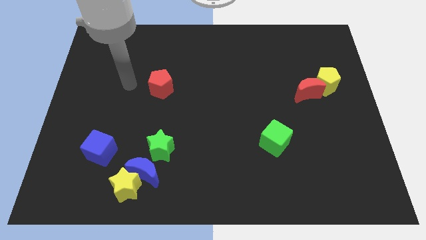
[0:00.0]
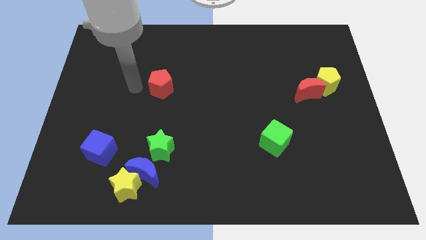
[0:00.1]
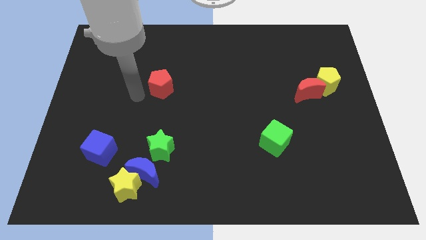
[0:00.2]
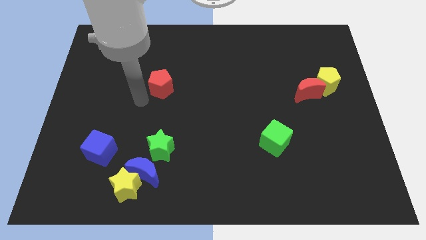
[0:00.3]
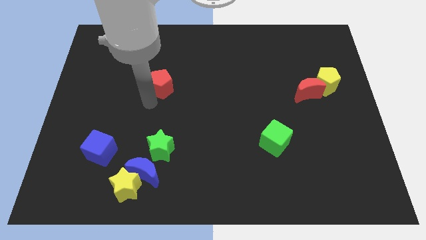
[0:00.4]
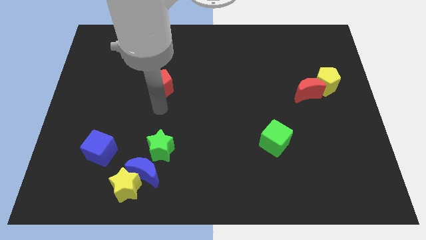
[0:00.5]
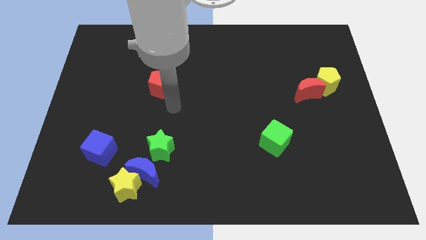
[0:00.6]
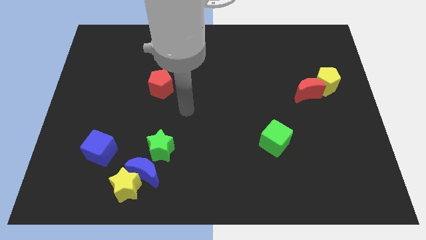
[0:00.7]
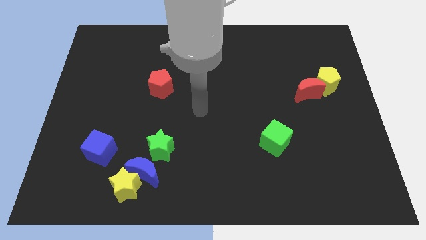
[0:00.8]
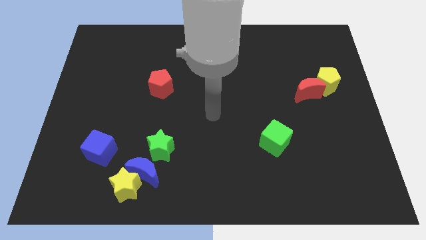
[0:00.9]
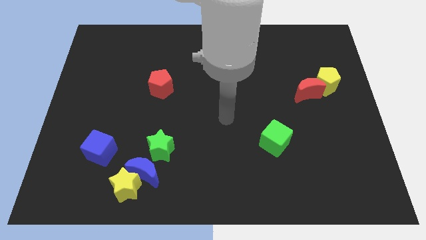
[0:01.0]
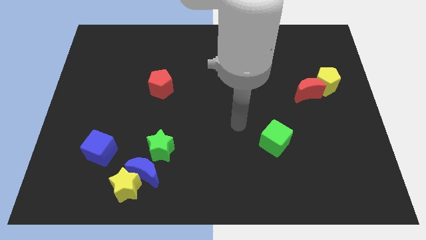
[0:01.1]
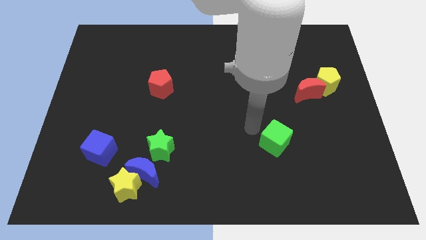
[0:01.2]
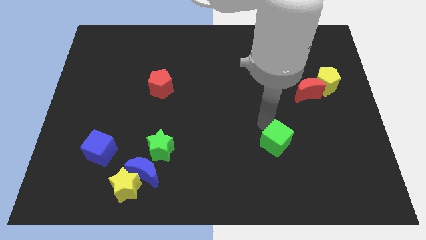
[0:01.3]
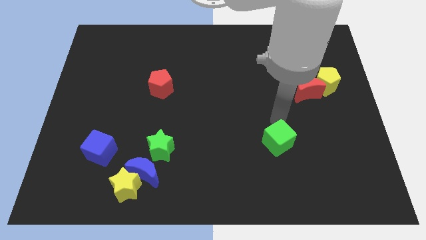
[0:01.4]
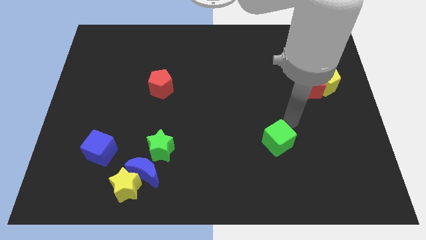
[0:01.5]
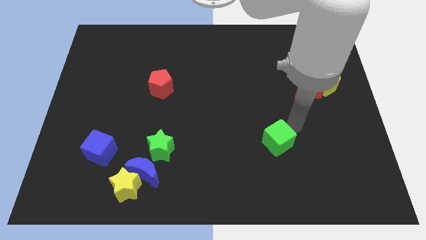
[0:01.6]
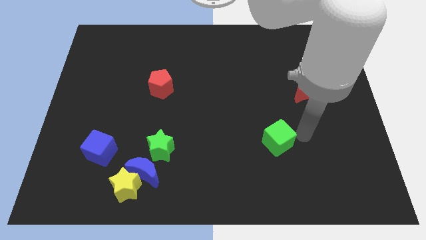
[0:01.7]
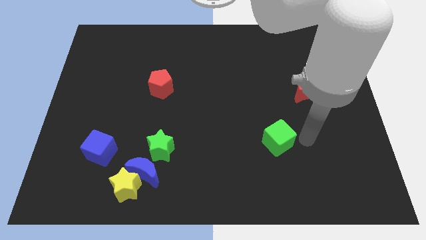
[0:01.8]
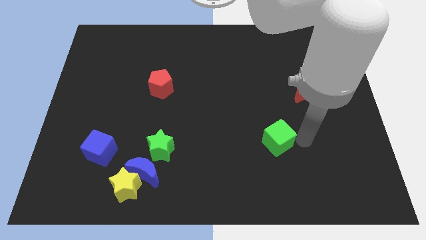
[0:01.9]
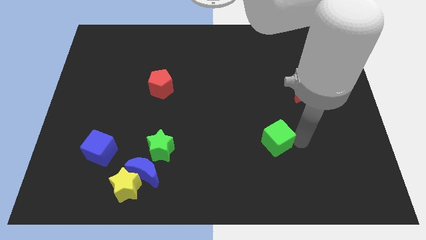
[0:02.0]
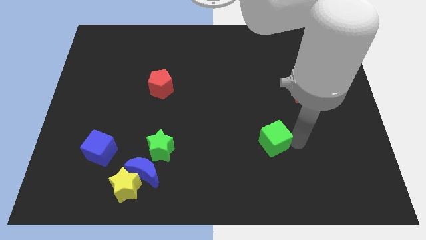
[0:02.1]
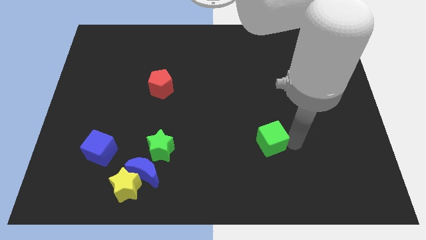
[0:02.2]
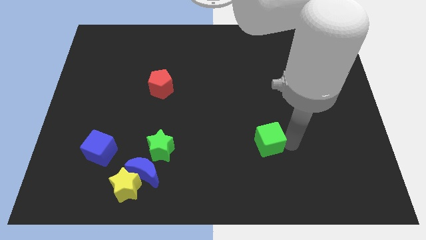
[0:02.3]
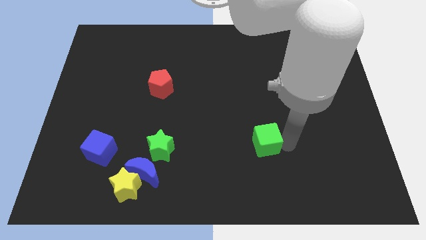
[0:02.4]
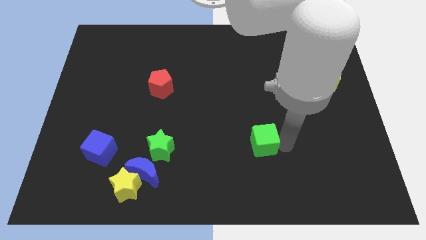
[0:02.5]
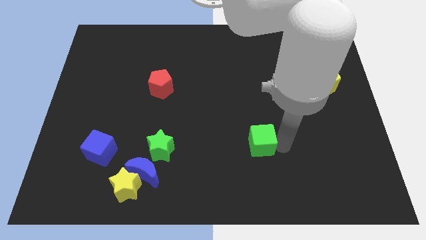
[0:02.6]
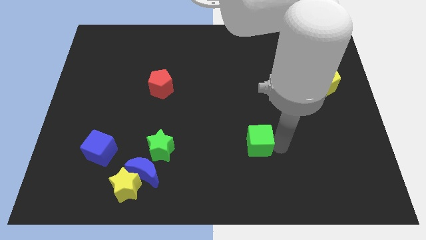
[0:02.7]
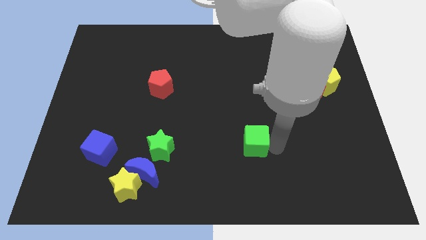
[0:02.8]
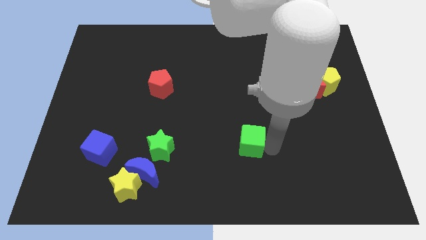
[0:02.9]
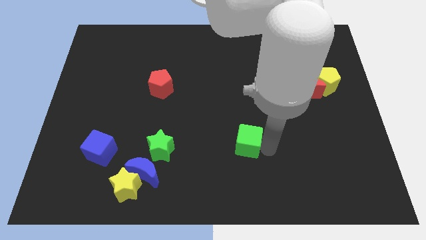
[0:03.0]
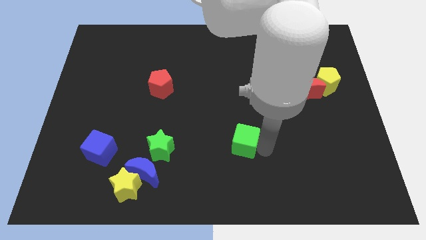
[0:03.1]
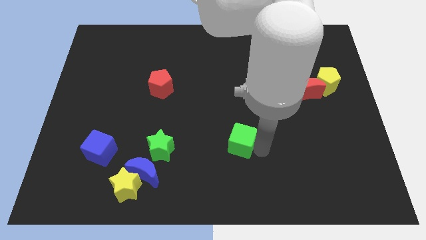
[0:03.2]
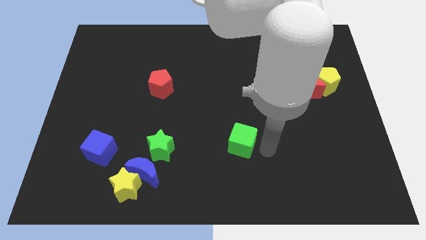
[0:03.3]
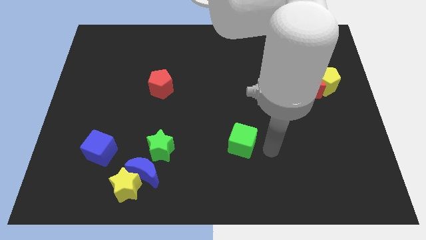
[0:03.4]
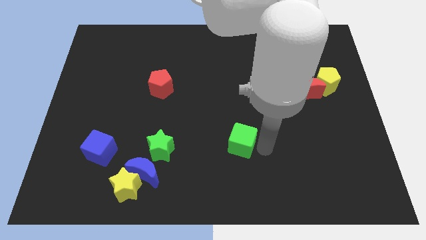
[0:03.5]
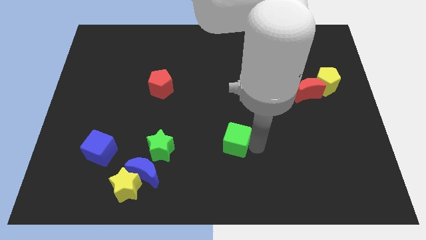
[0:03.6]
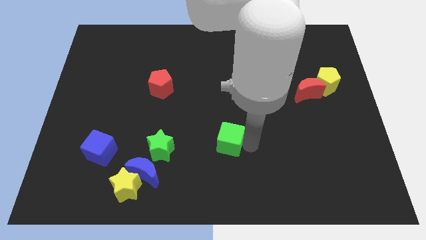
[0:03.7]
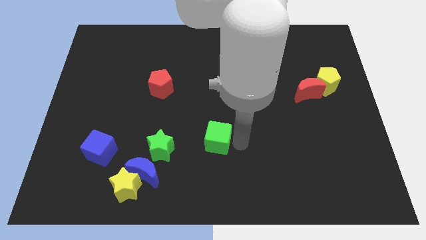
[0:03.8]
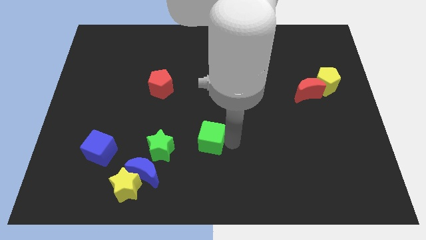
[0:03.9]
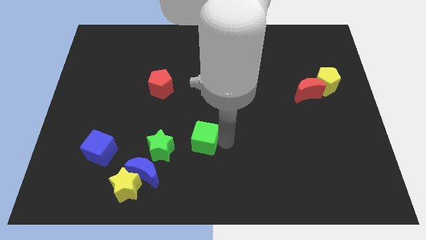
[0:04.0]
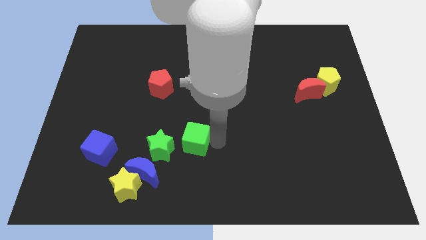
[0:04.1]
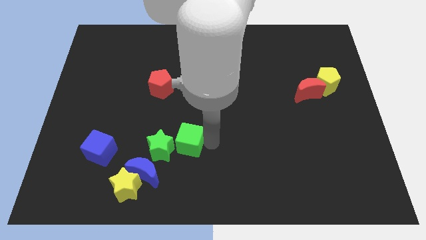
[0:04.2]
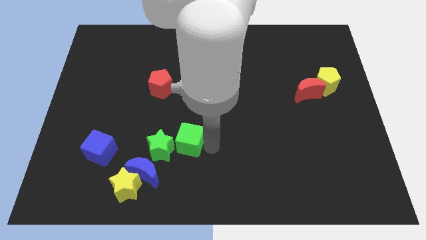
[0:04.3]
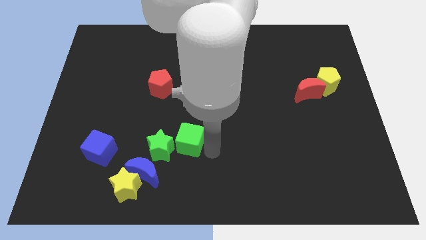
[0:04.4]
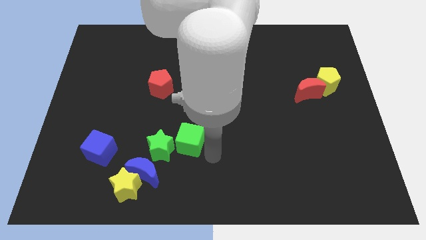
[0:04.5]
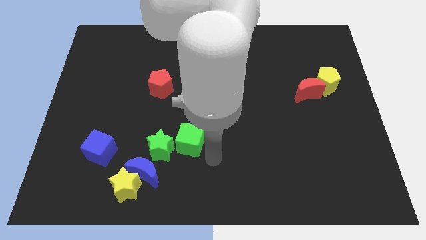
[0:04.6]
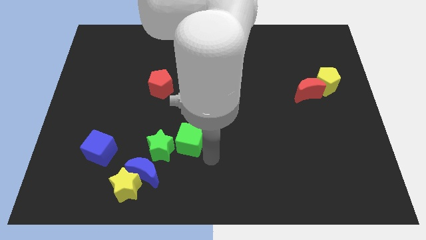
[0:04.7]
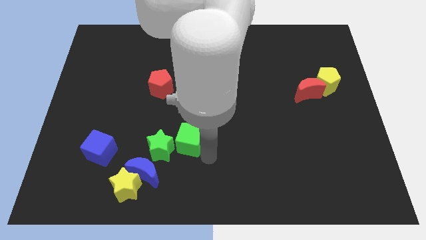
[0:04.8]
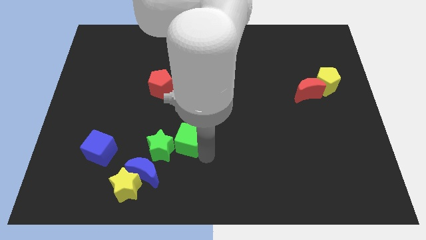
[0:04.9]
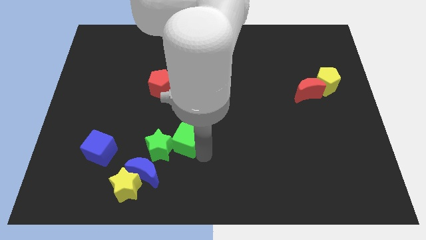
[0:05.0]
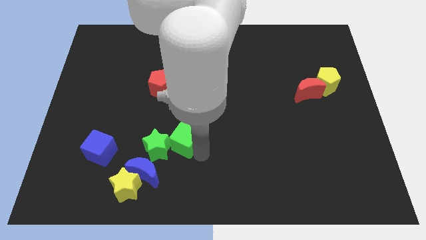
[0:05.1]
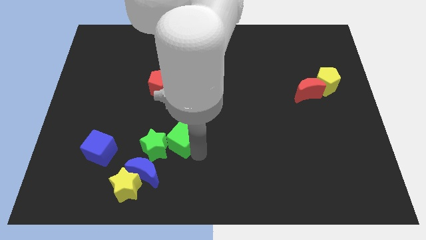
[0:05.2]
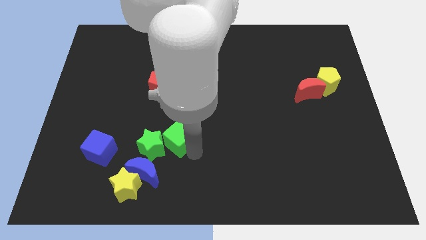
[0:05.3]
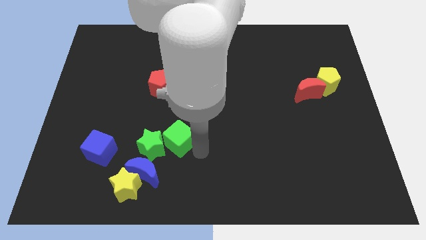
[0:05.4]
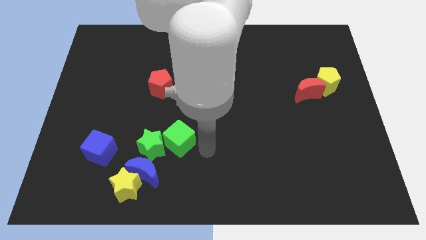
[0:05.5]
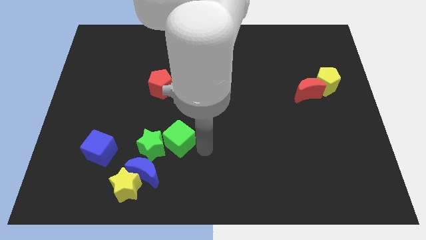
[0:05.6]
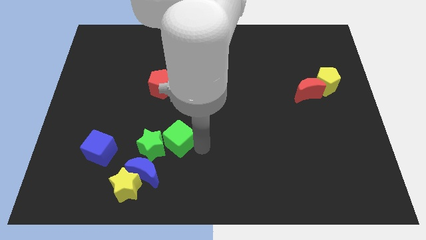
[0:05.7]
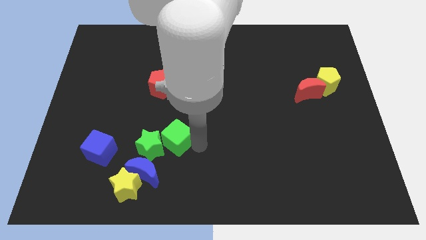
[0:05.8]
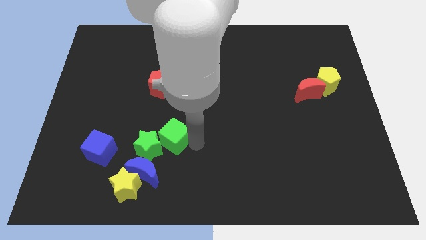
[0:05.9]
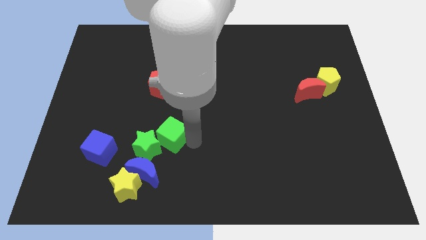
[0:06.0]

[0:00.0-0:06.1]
put the green cube to the top side of the blue moon
